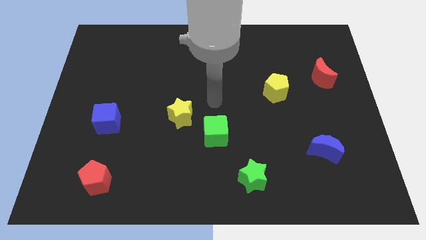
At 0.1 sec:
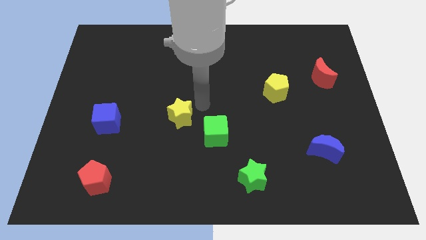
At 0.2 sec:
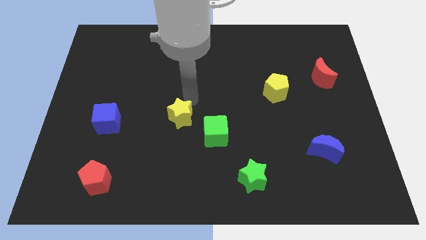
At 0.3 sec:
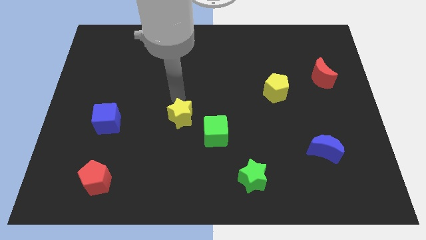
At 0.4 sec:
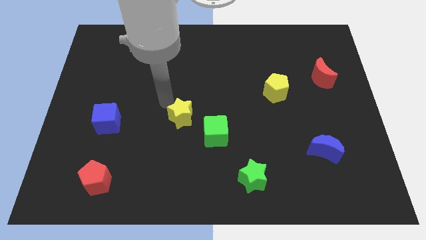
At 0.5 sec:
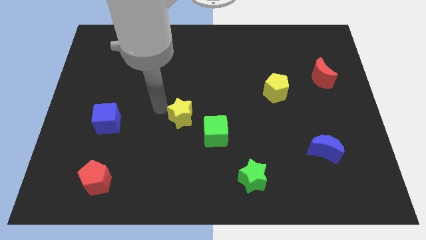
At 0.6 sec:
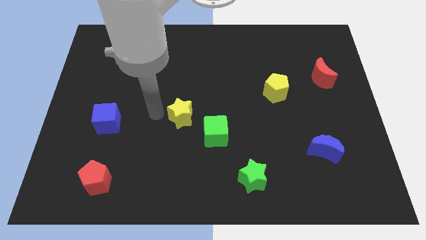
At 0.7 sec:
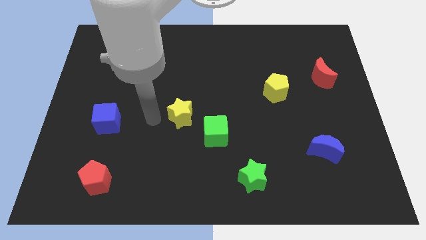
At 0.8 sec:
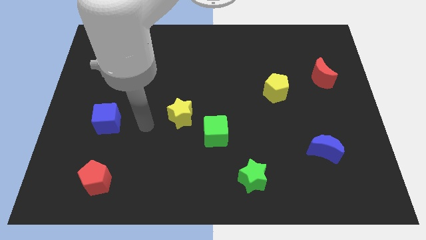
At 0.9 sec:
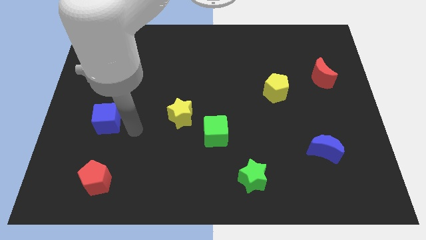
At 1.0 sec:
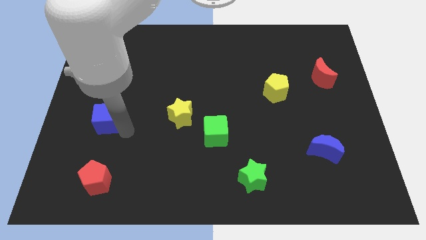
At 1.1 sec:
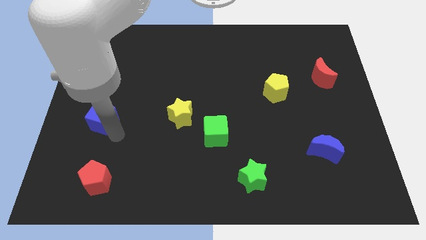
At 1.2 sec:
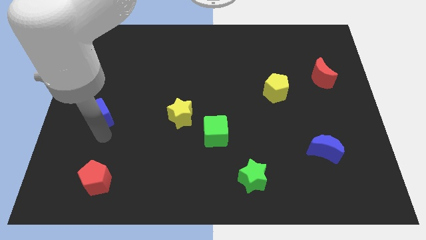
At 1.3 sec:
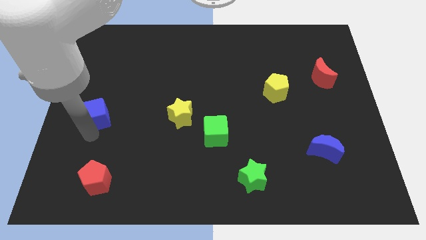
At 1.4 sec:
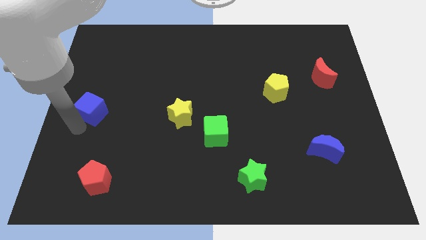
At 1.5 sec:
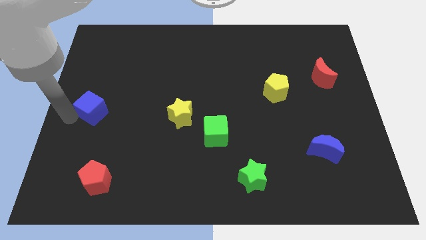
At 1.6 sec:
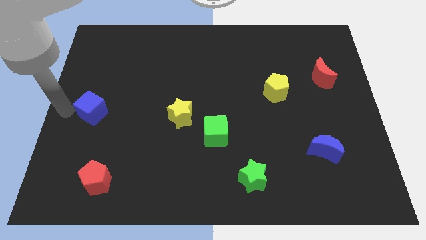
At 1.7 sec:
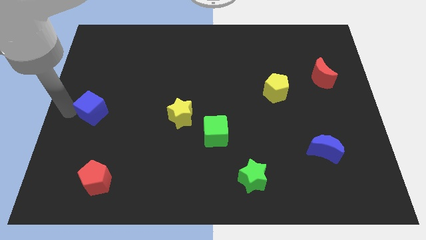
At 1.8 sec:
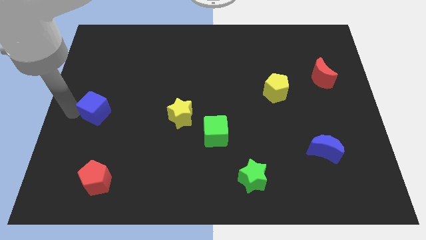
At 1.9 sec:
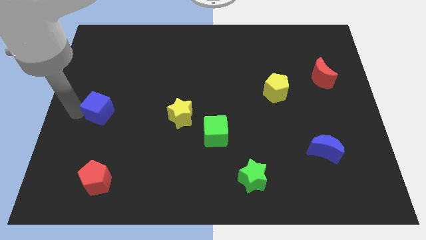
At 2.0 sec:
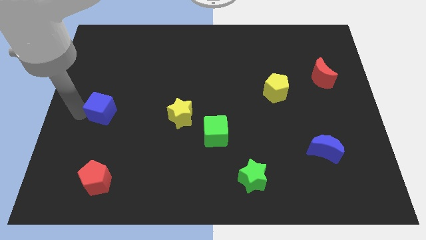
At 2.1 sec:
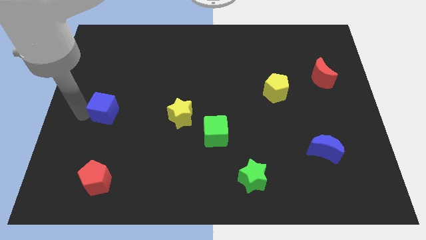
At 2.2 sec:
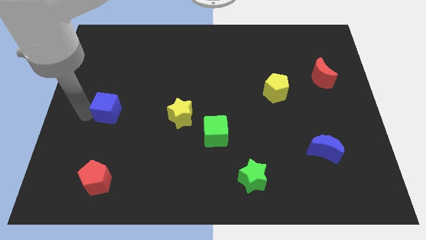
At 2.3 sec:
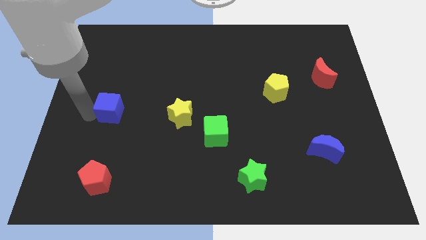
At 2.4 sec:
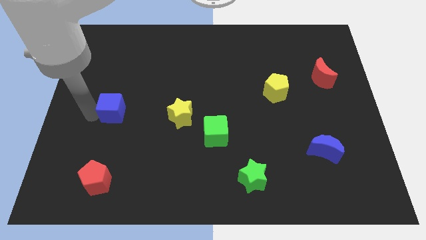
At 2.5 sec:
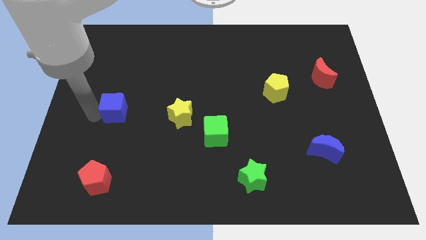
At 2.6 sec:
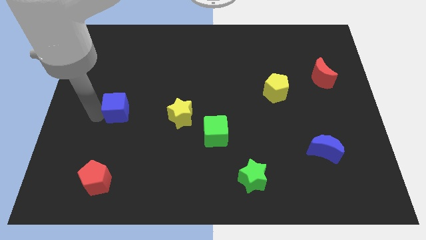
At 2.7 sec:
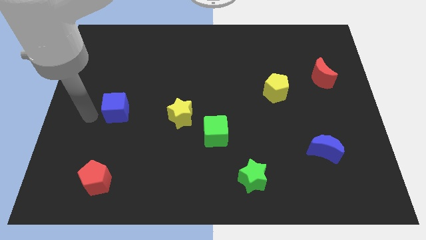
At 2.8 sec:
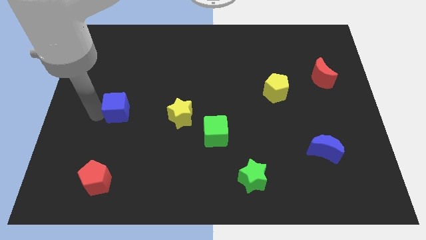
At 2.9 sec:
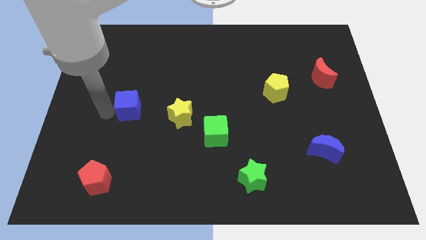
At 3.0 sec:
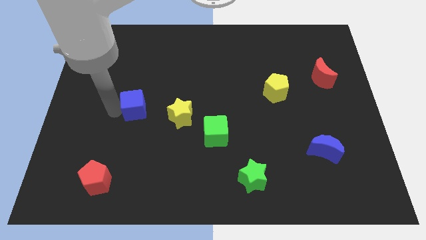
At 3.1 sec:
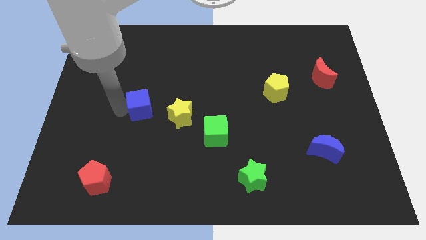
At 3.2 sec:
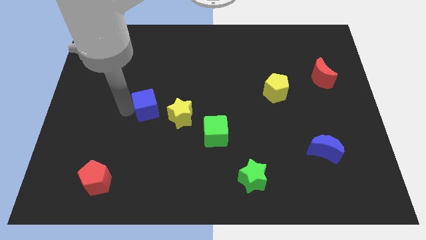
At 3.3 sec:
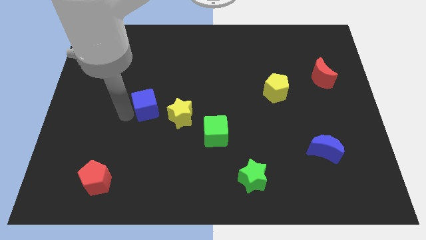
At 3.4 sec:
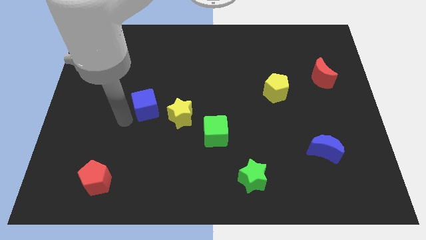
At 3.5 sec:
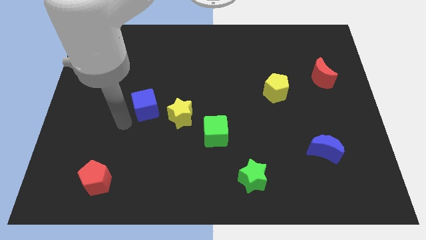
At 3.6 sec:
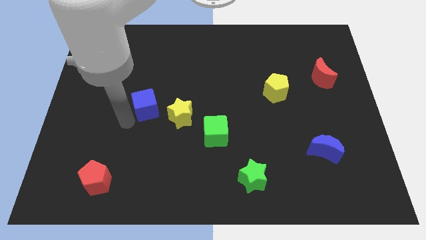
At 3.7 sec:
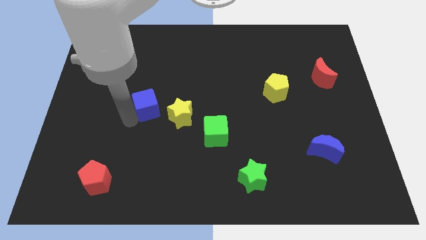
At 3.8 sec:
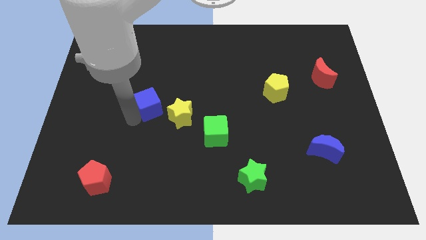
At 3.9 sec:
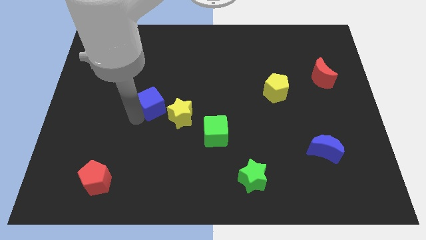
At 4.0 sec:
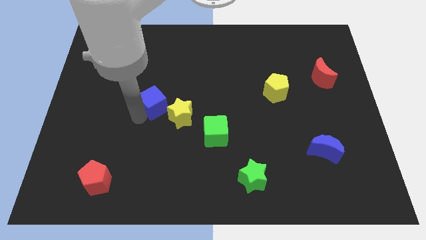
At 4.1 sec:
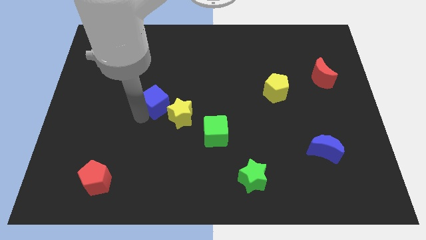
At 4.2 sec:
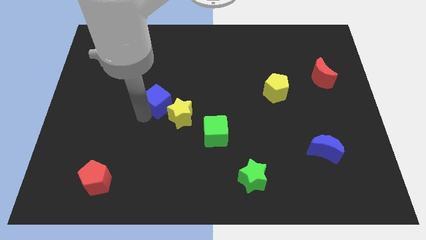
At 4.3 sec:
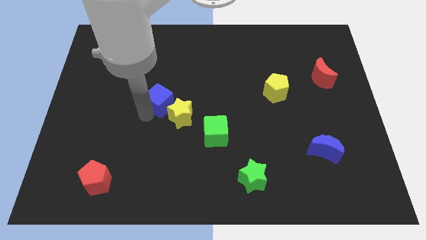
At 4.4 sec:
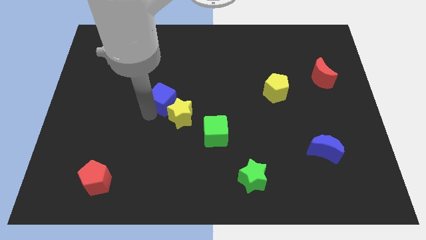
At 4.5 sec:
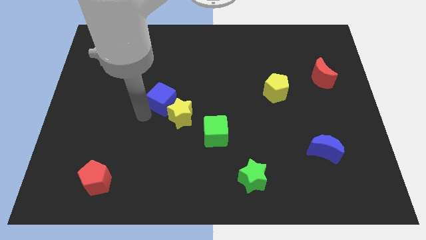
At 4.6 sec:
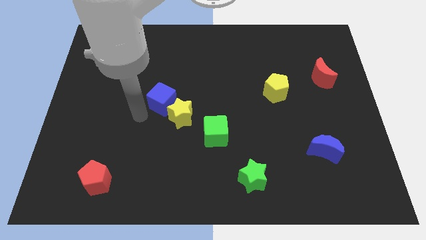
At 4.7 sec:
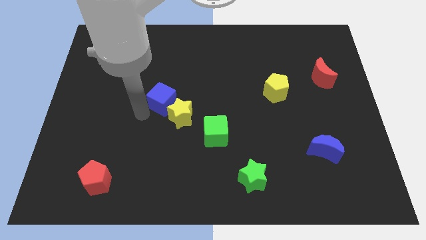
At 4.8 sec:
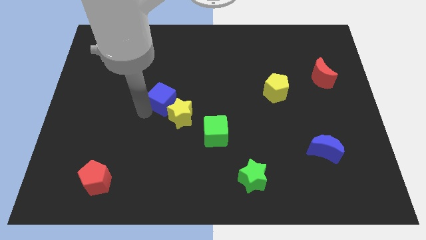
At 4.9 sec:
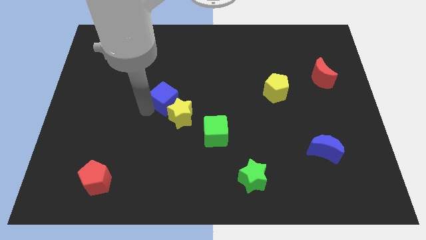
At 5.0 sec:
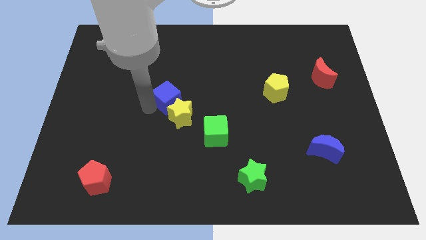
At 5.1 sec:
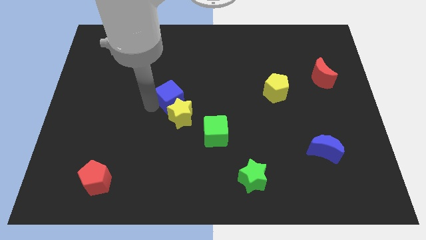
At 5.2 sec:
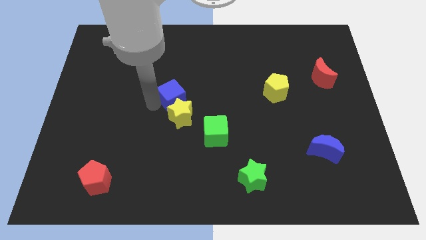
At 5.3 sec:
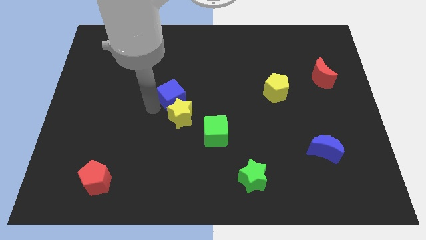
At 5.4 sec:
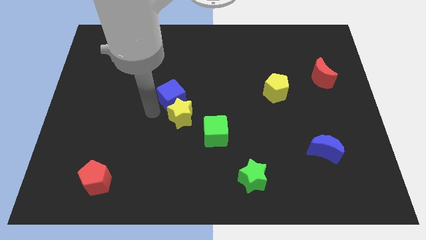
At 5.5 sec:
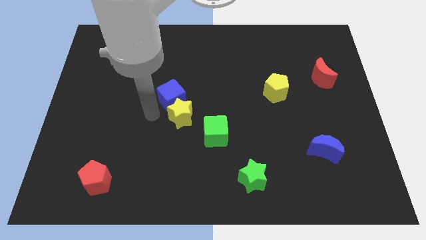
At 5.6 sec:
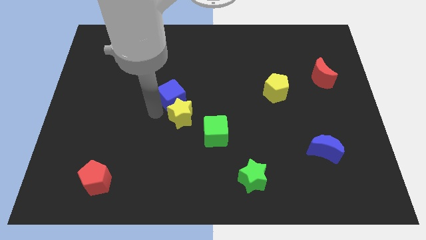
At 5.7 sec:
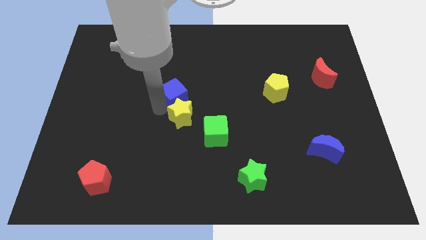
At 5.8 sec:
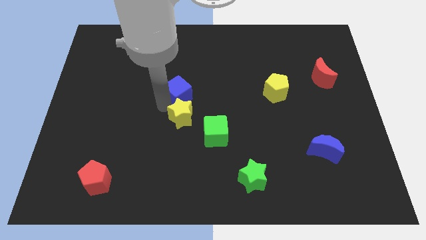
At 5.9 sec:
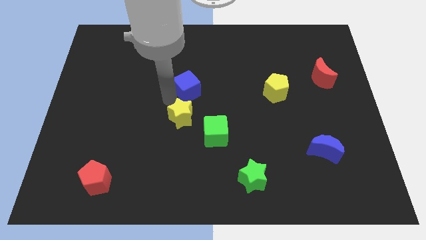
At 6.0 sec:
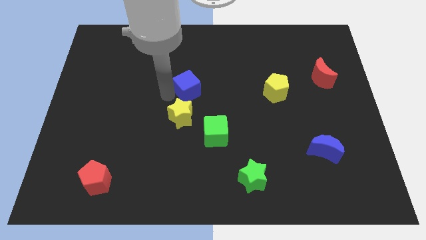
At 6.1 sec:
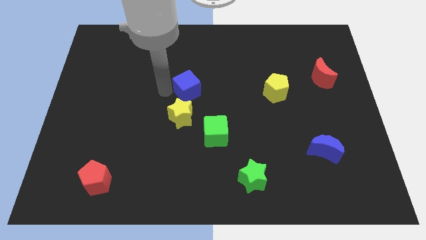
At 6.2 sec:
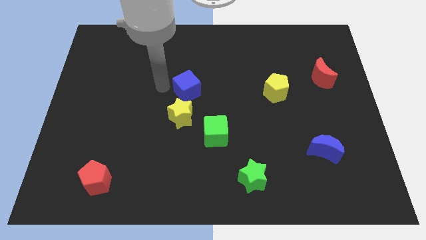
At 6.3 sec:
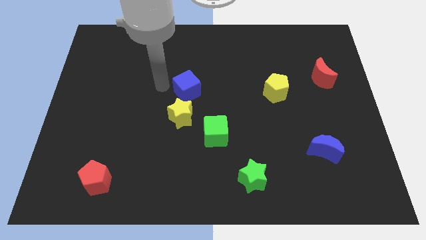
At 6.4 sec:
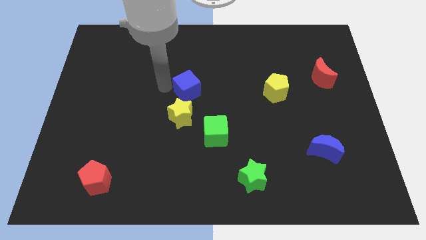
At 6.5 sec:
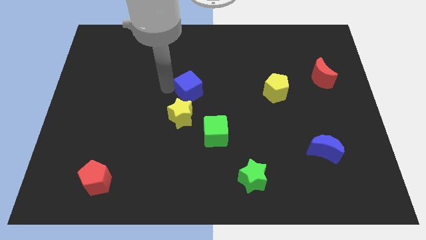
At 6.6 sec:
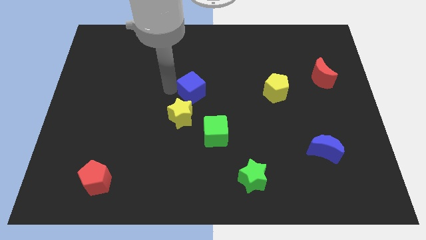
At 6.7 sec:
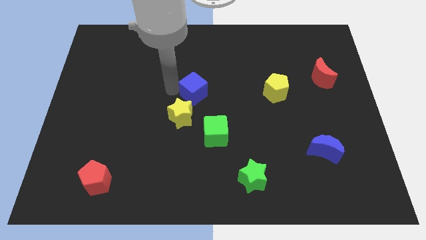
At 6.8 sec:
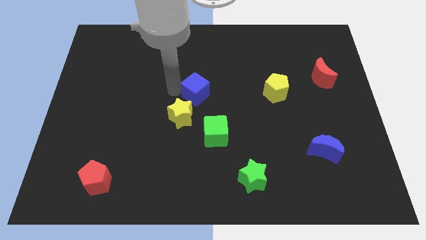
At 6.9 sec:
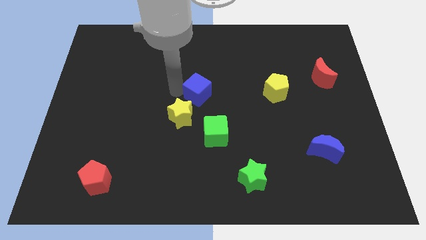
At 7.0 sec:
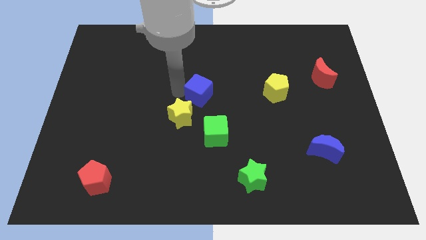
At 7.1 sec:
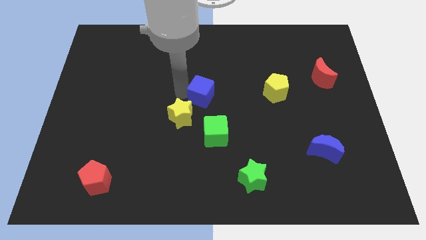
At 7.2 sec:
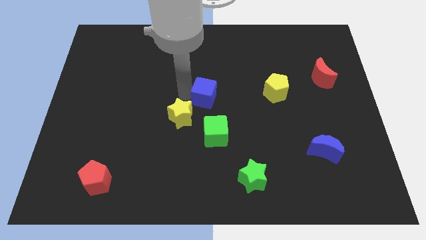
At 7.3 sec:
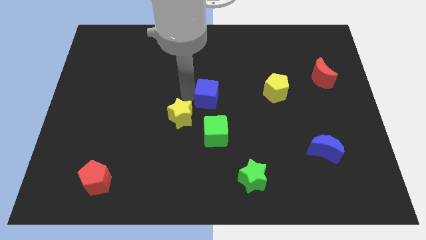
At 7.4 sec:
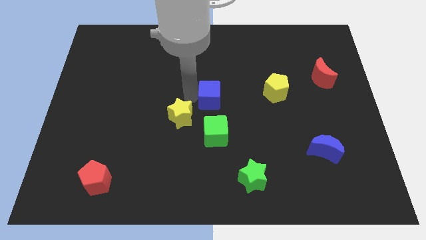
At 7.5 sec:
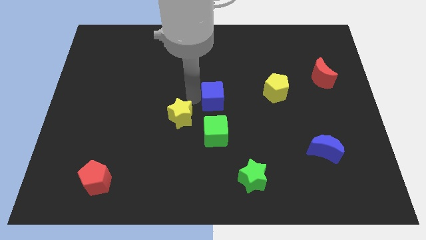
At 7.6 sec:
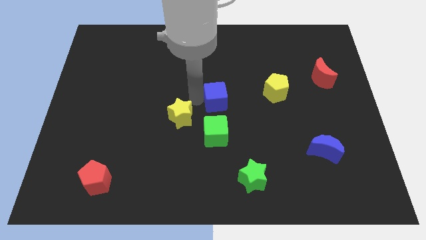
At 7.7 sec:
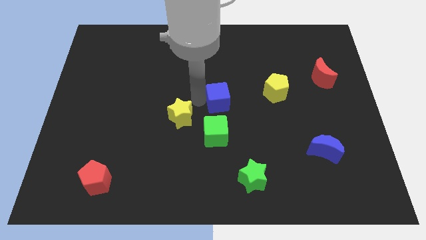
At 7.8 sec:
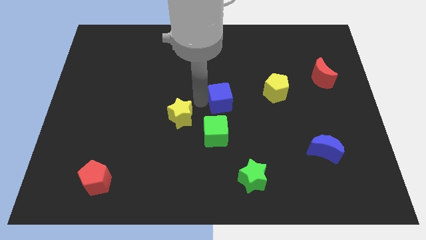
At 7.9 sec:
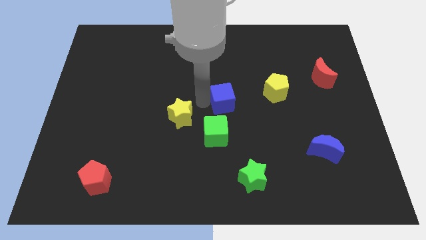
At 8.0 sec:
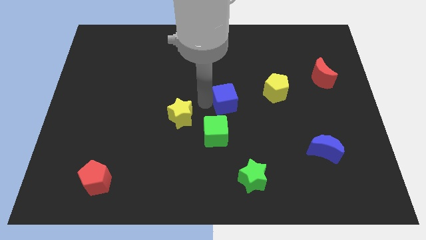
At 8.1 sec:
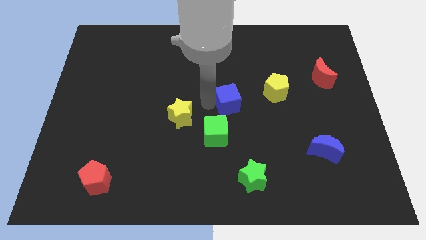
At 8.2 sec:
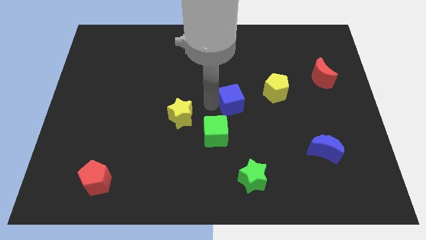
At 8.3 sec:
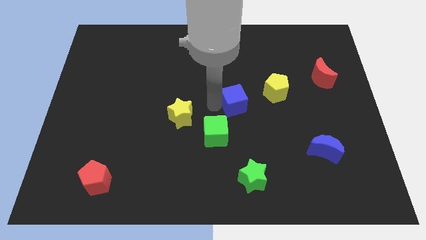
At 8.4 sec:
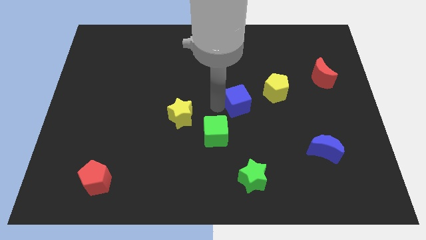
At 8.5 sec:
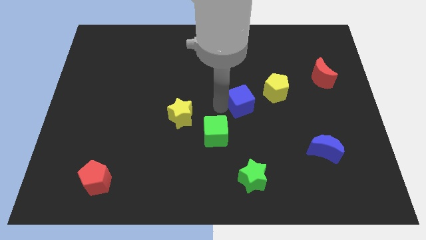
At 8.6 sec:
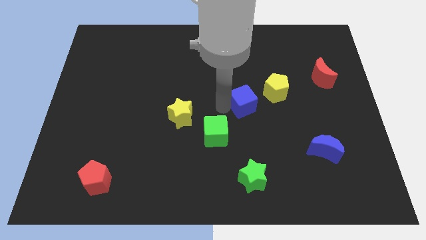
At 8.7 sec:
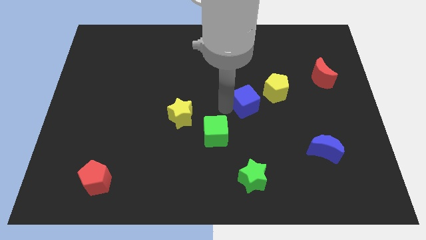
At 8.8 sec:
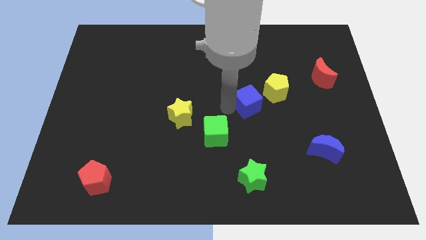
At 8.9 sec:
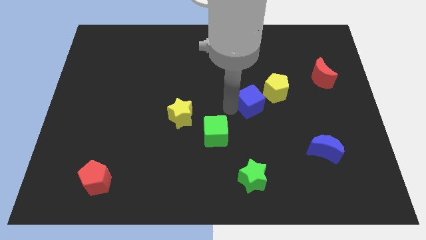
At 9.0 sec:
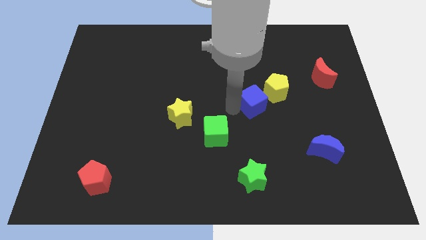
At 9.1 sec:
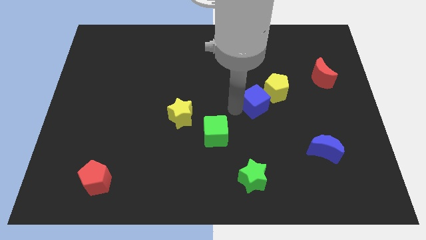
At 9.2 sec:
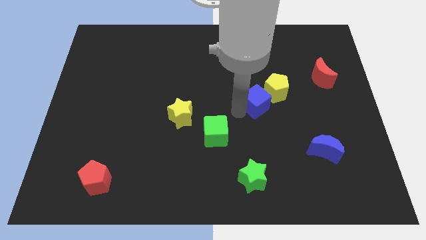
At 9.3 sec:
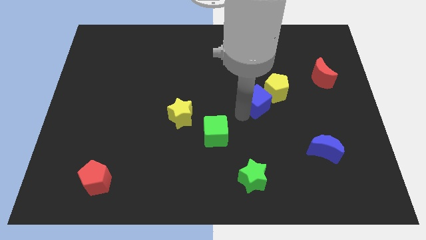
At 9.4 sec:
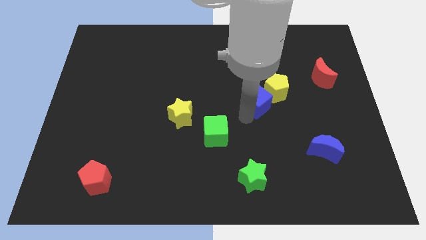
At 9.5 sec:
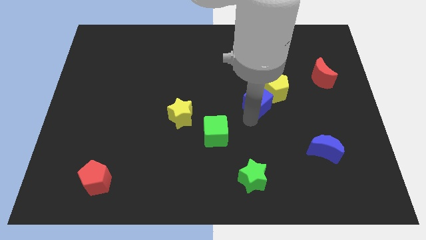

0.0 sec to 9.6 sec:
put the blue cube towards the yellow pentagon
